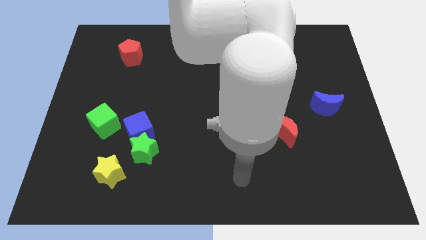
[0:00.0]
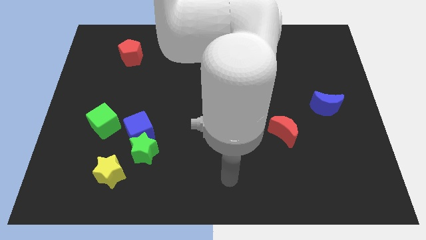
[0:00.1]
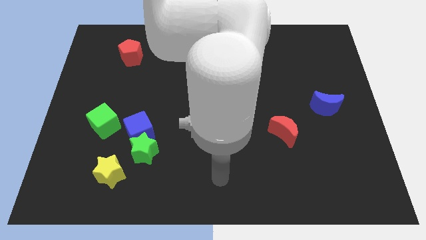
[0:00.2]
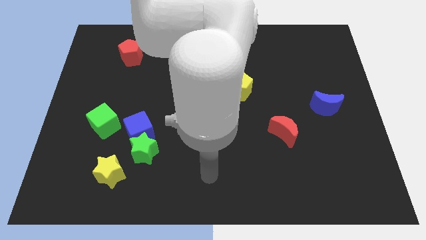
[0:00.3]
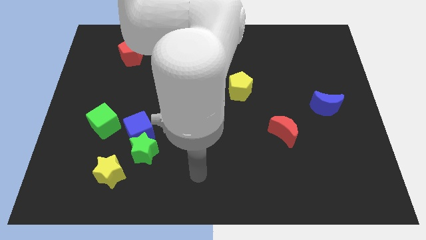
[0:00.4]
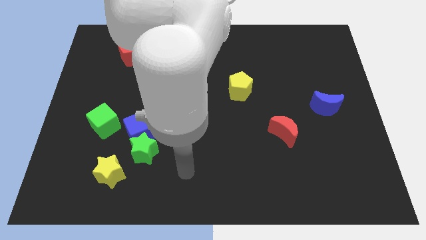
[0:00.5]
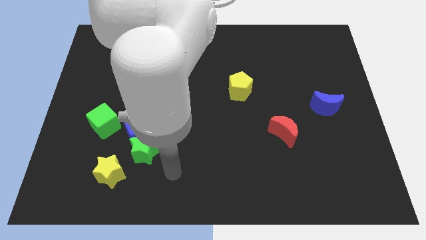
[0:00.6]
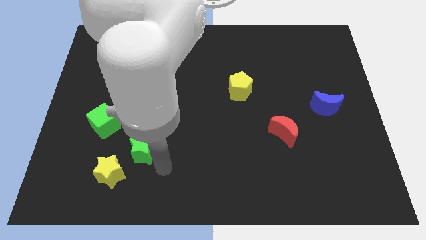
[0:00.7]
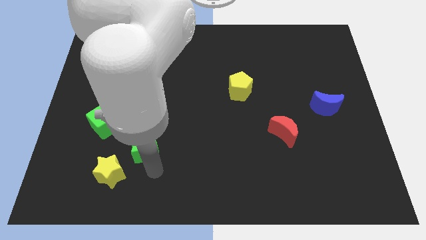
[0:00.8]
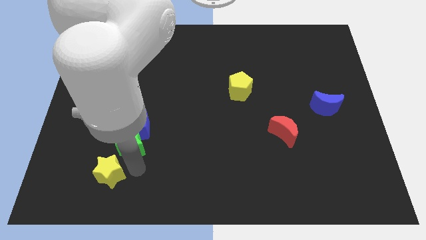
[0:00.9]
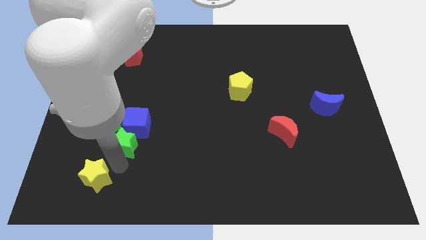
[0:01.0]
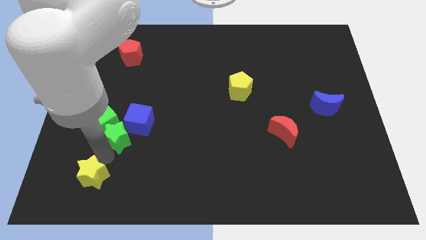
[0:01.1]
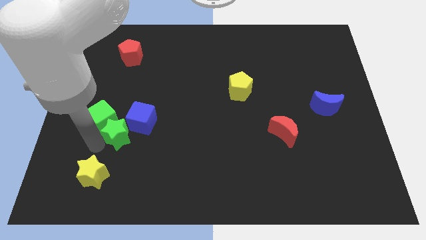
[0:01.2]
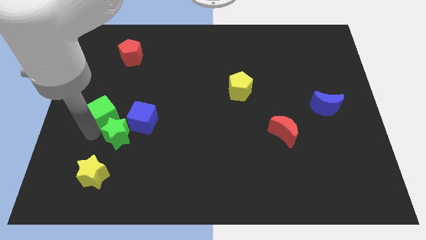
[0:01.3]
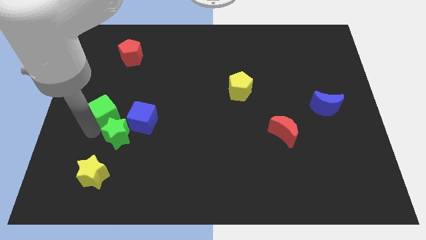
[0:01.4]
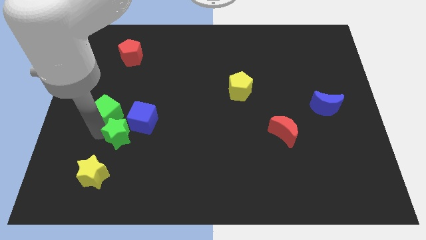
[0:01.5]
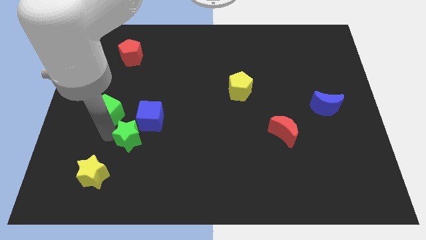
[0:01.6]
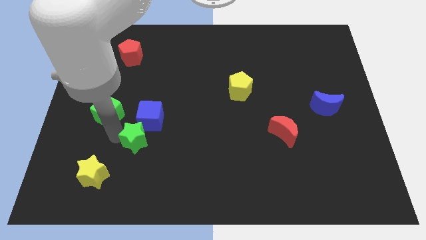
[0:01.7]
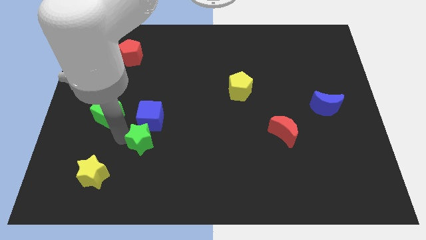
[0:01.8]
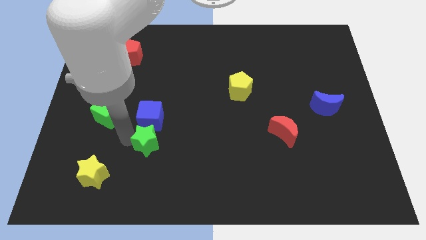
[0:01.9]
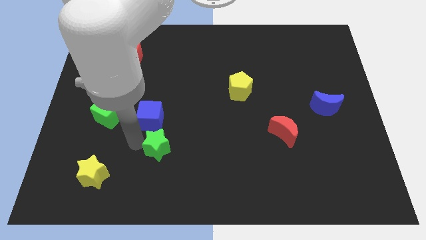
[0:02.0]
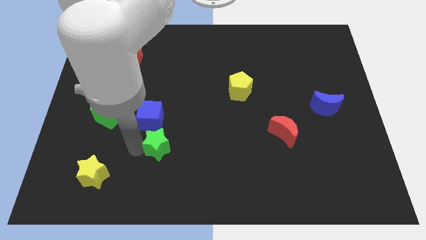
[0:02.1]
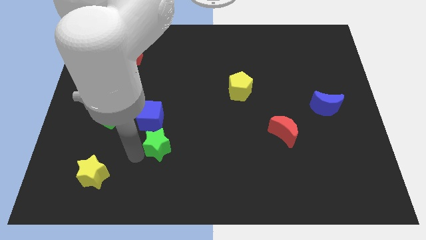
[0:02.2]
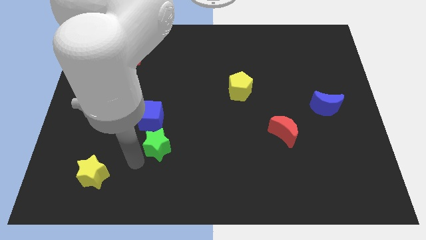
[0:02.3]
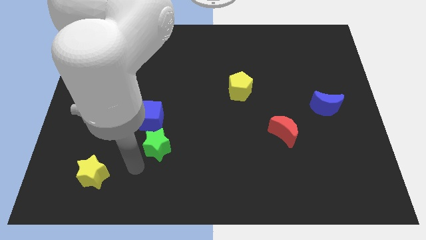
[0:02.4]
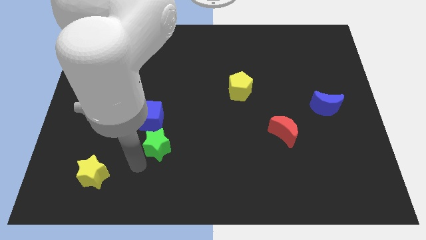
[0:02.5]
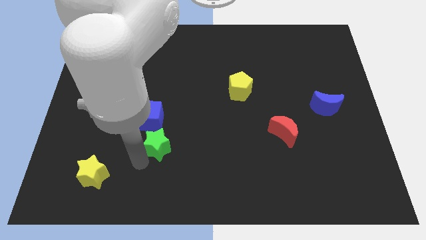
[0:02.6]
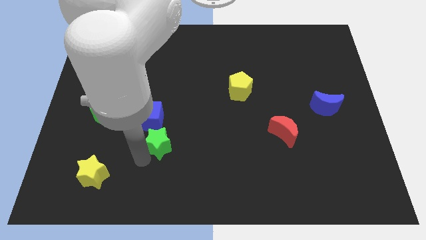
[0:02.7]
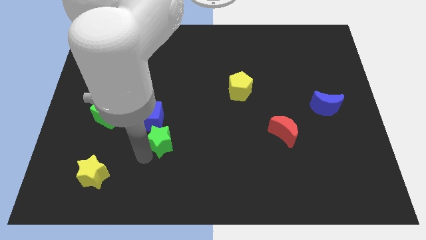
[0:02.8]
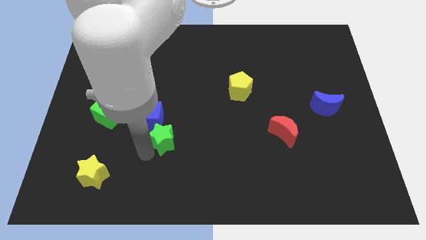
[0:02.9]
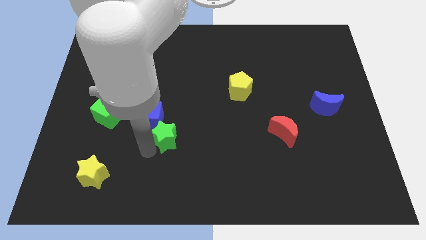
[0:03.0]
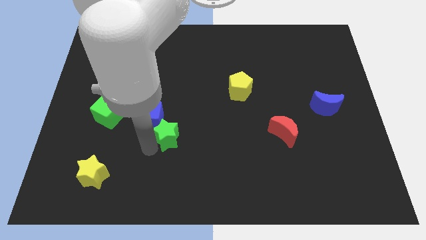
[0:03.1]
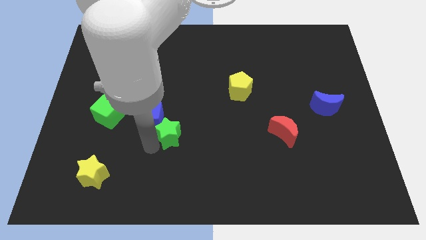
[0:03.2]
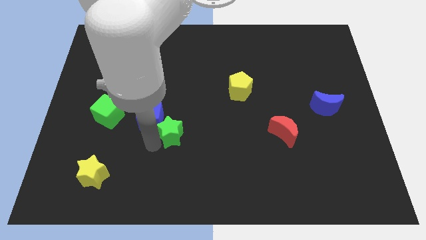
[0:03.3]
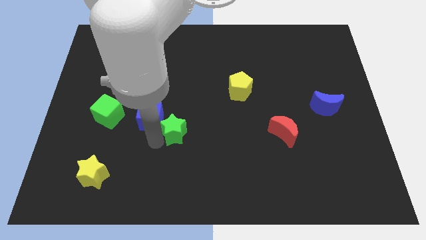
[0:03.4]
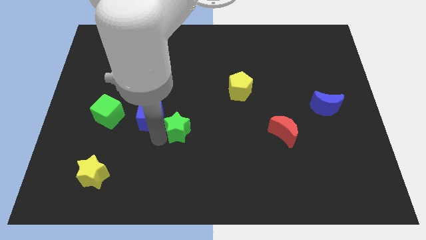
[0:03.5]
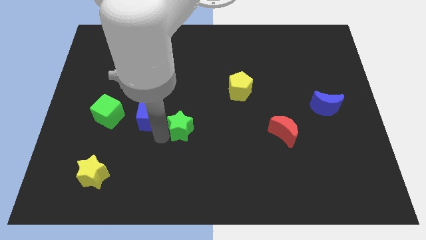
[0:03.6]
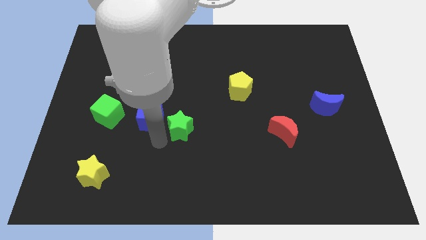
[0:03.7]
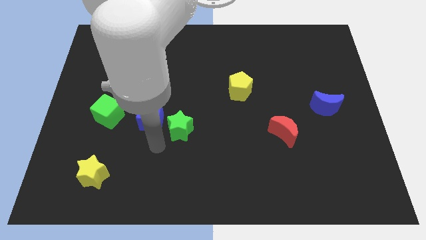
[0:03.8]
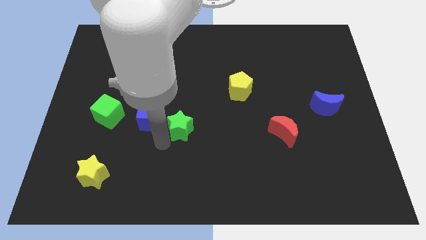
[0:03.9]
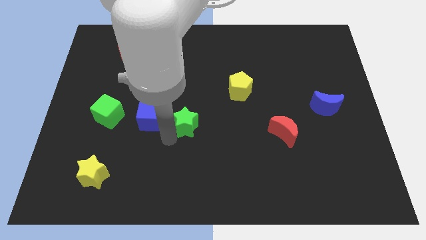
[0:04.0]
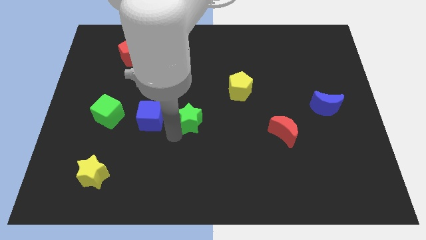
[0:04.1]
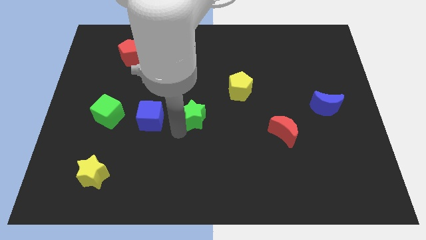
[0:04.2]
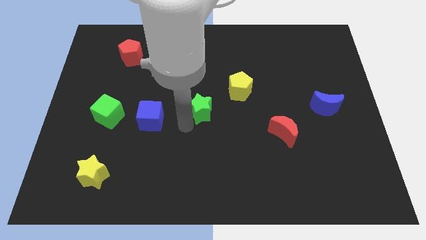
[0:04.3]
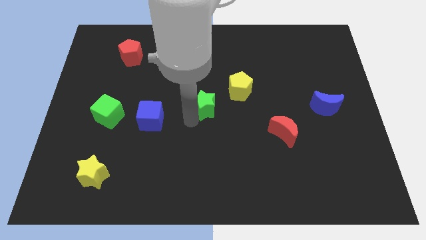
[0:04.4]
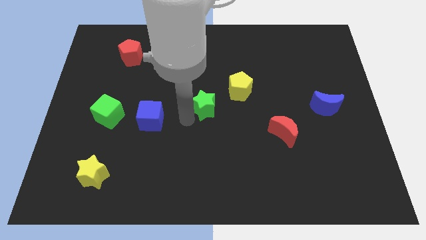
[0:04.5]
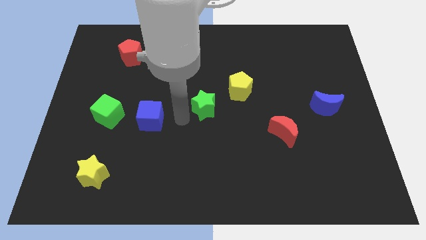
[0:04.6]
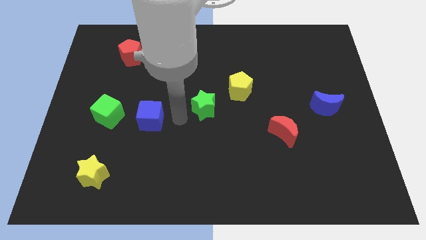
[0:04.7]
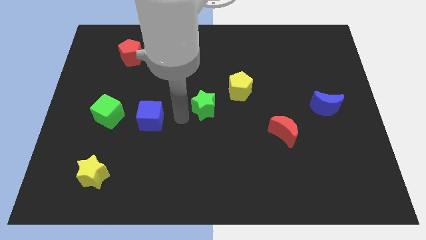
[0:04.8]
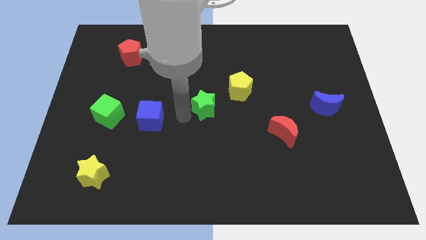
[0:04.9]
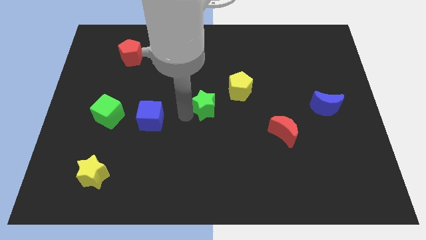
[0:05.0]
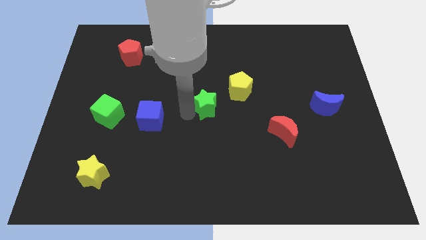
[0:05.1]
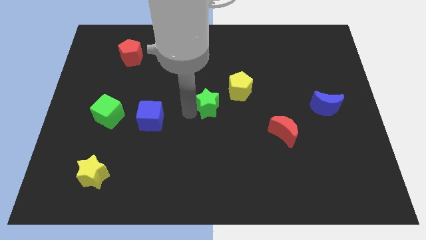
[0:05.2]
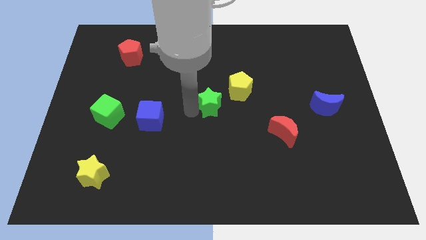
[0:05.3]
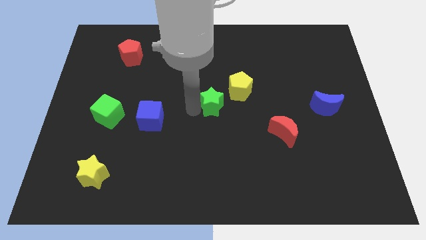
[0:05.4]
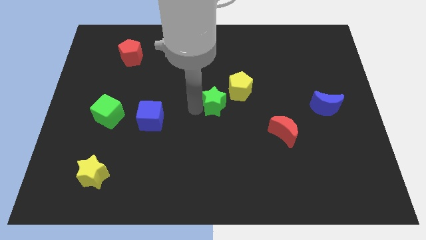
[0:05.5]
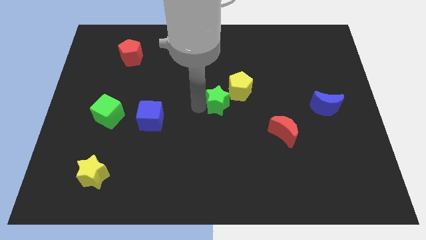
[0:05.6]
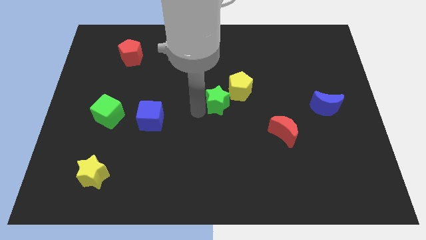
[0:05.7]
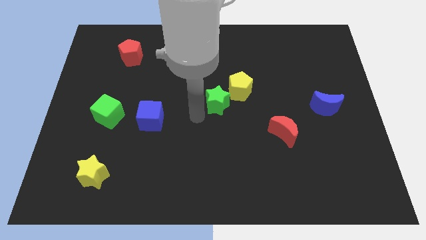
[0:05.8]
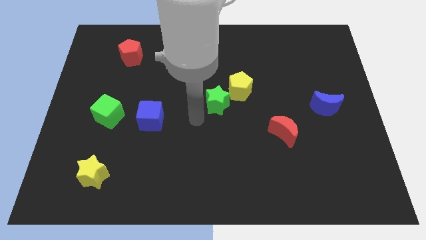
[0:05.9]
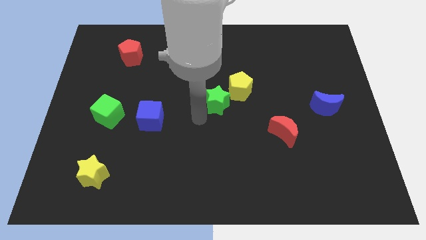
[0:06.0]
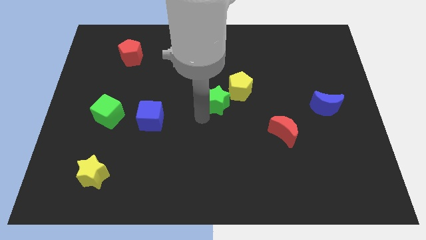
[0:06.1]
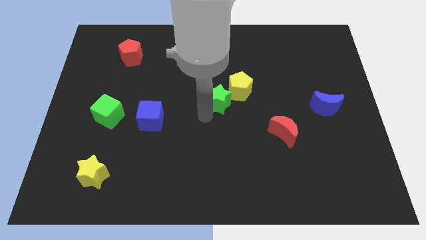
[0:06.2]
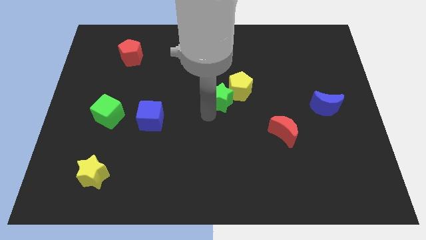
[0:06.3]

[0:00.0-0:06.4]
slide the green star next to the yellow pentagon
